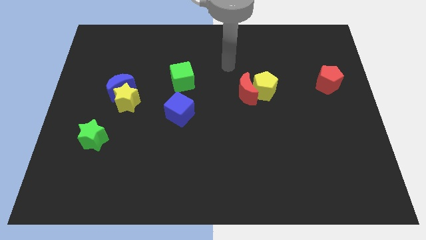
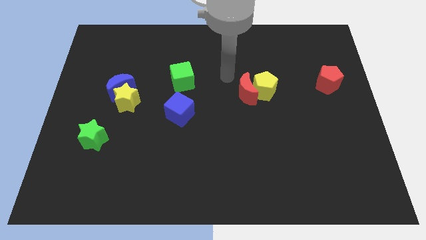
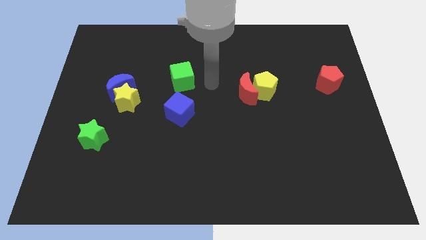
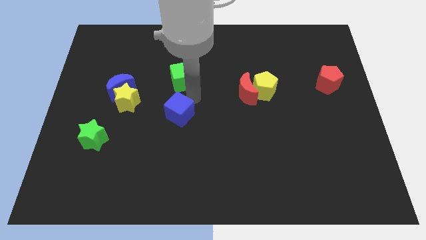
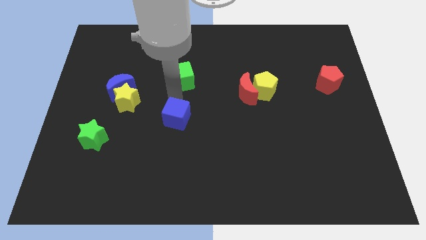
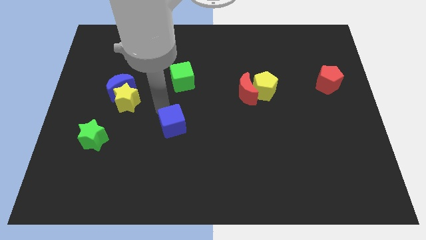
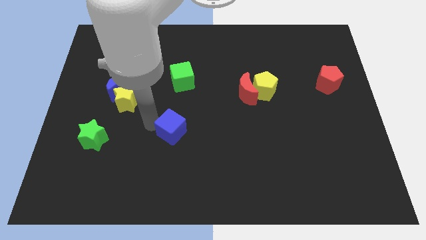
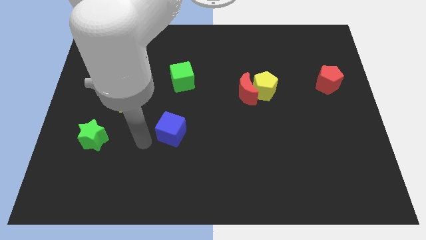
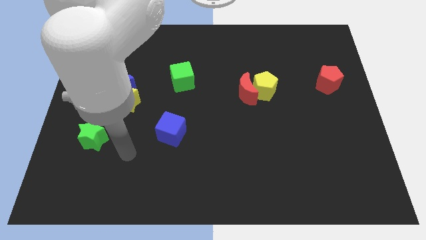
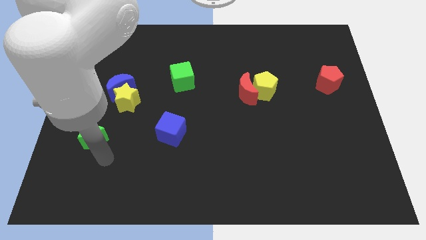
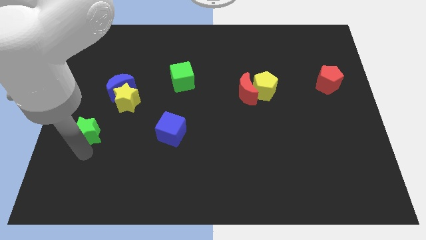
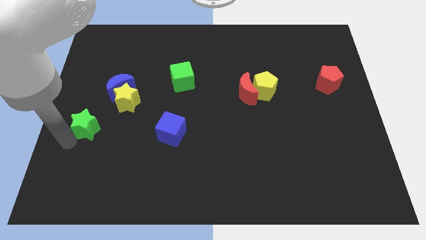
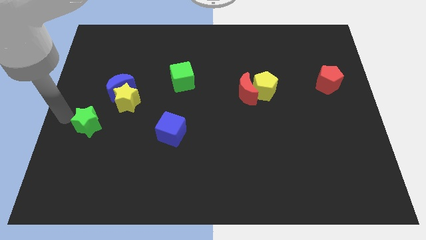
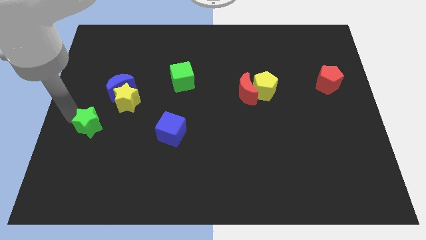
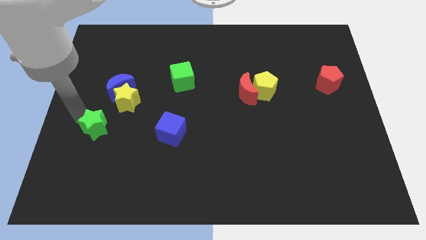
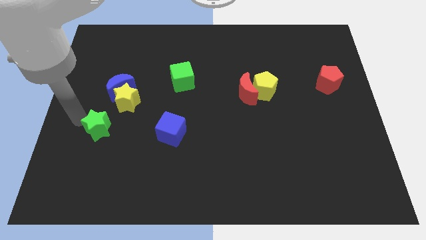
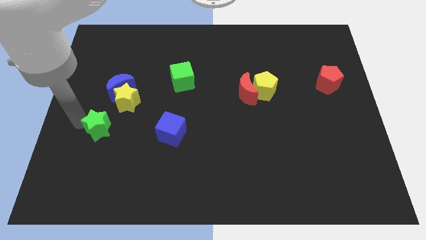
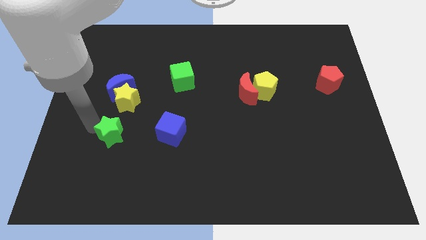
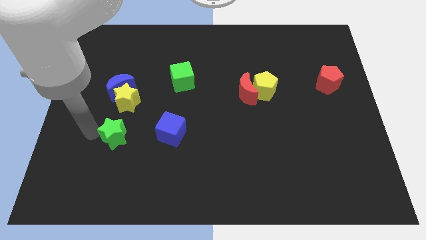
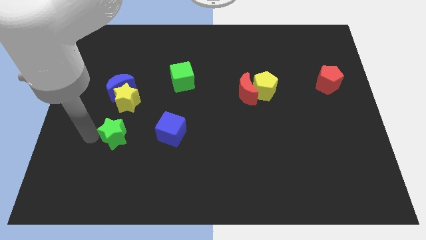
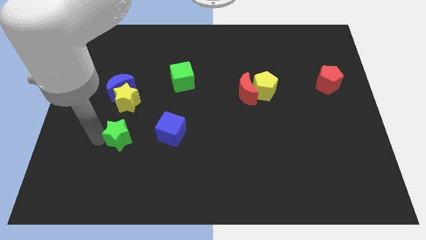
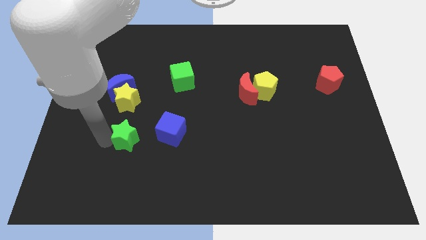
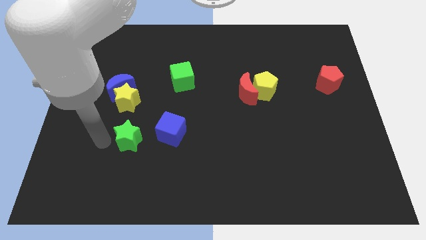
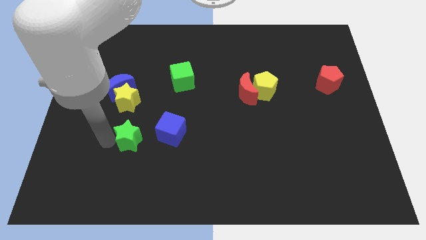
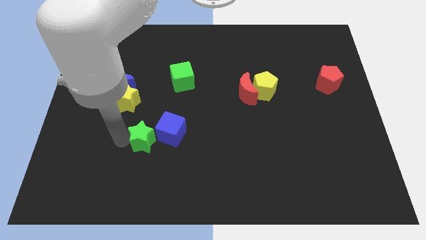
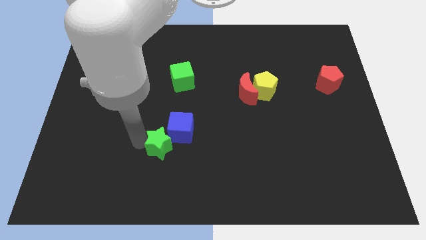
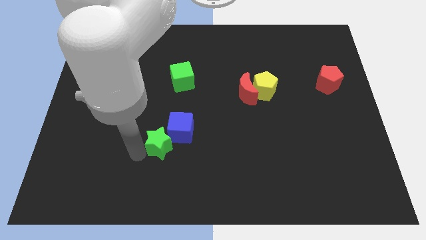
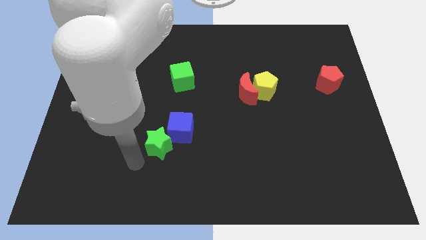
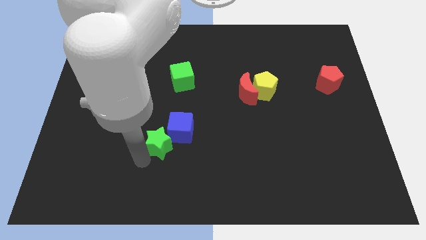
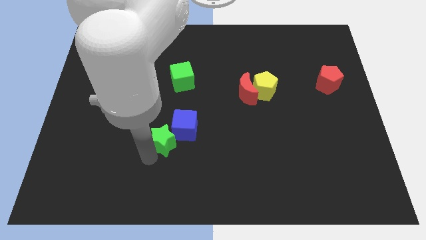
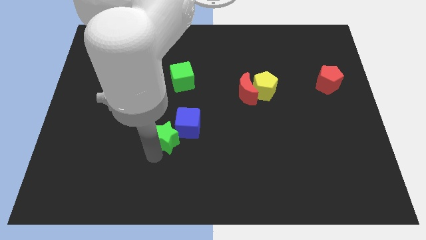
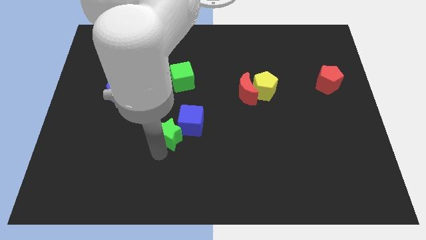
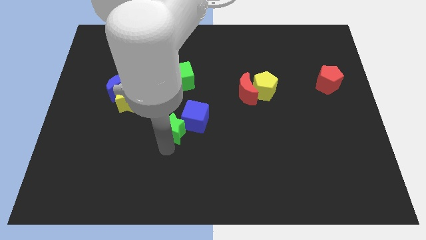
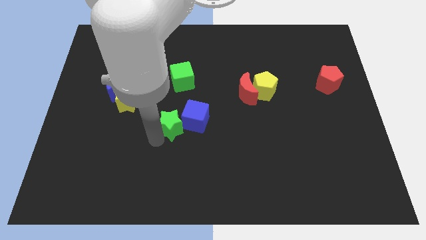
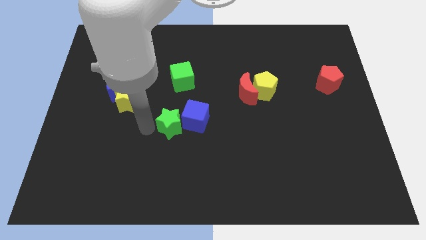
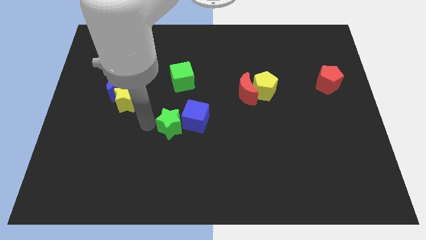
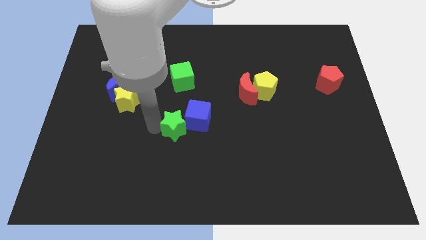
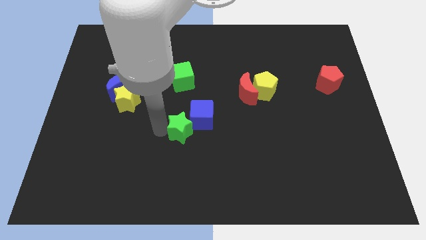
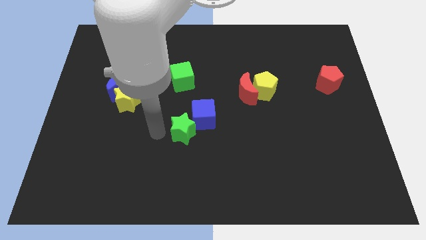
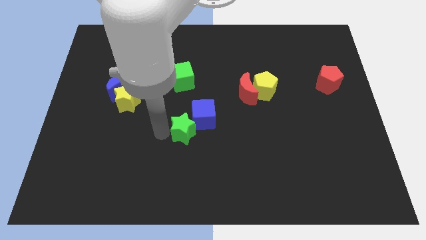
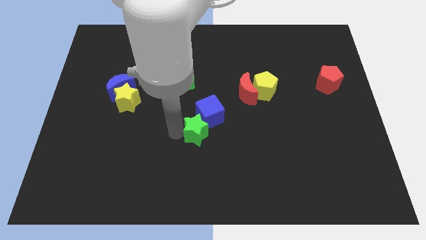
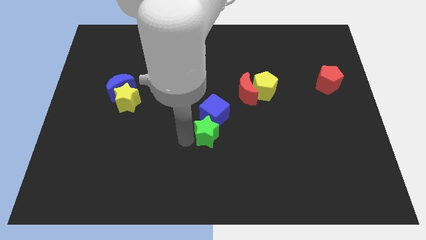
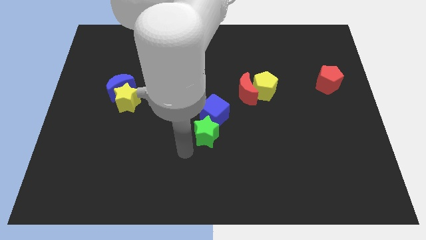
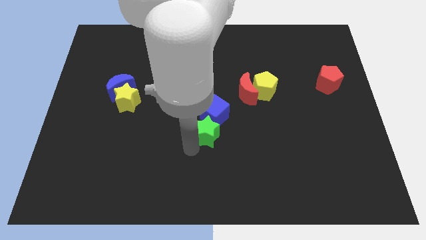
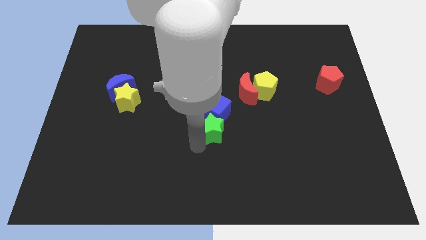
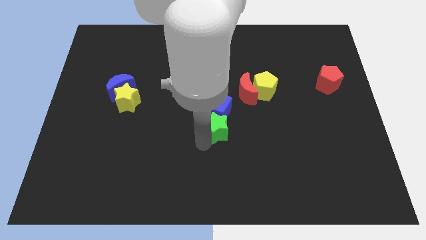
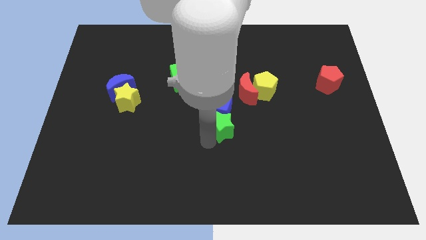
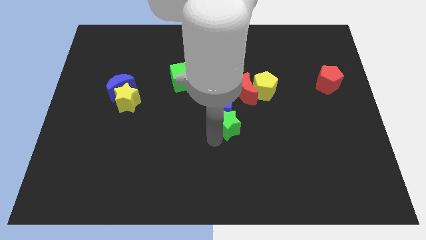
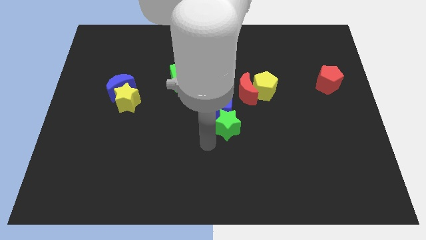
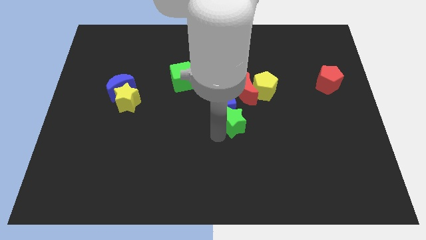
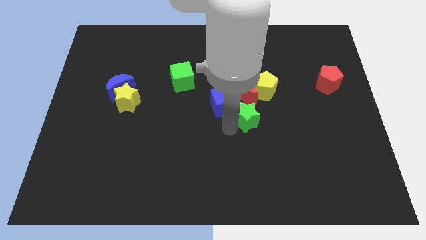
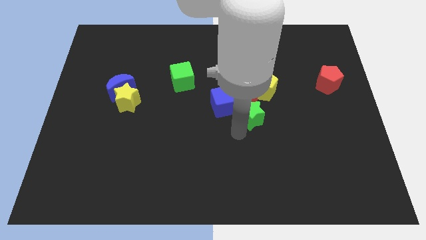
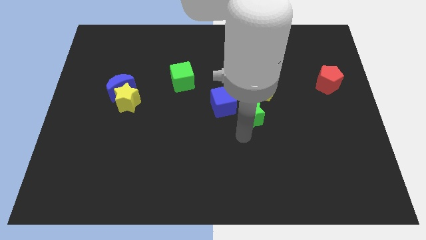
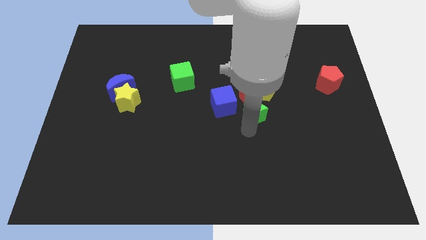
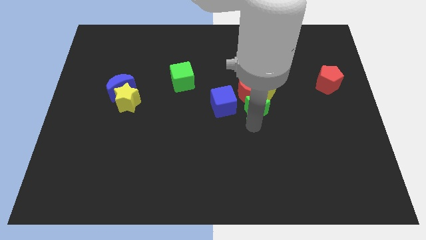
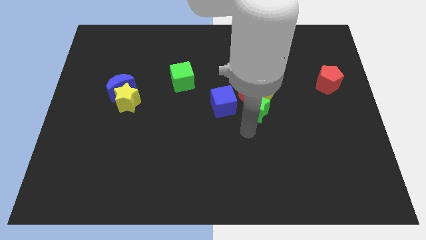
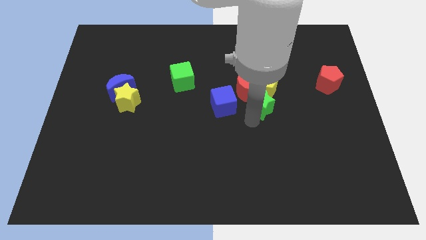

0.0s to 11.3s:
push the green star next to the yellow pentagon

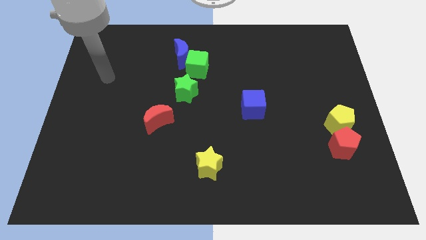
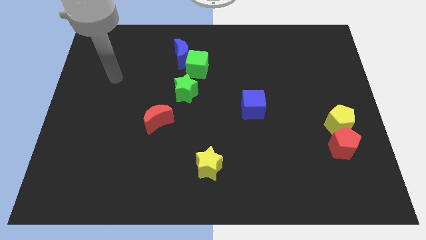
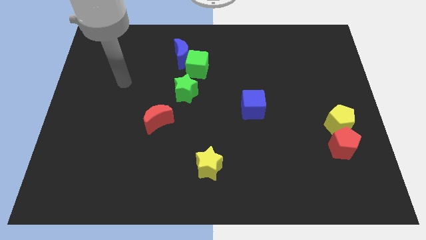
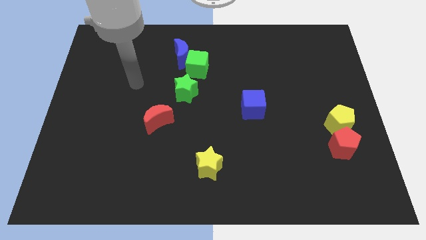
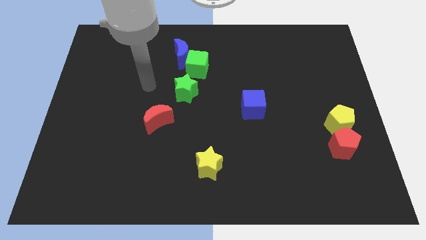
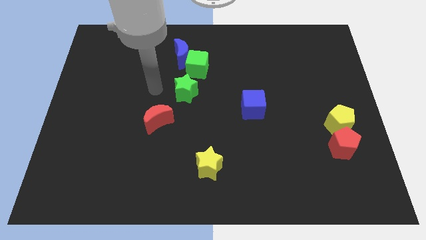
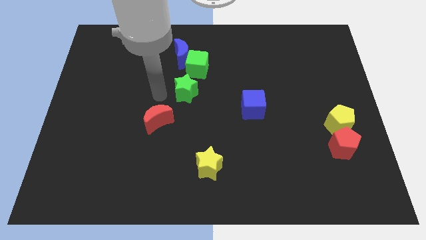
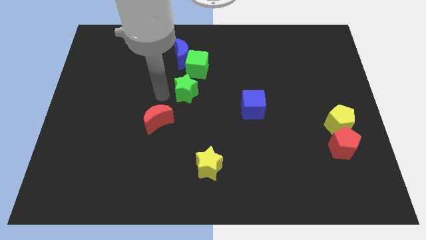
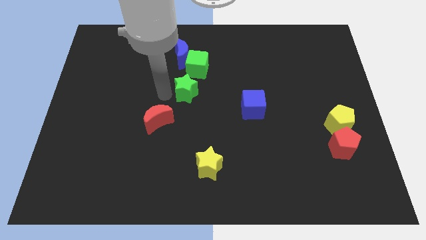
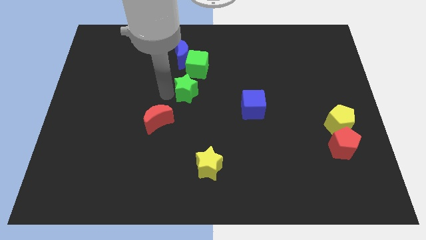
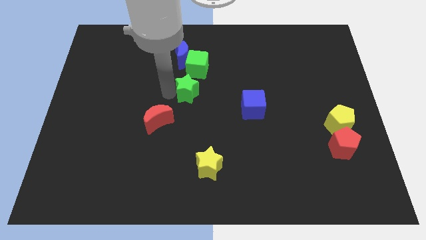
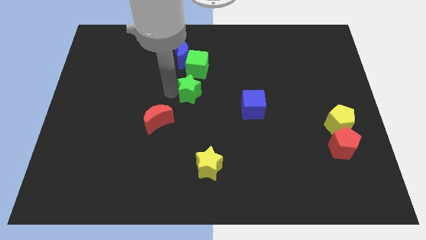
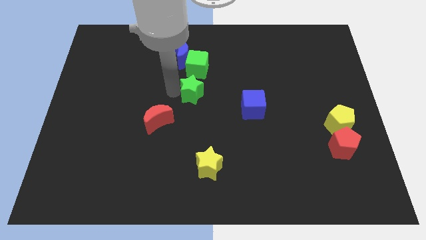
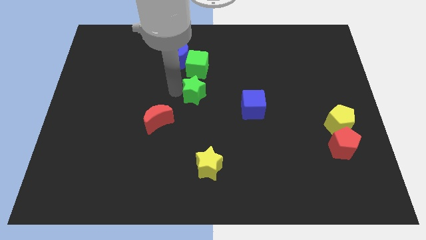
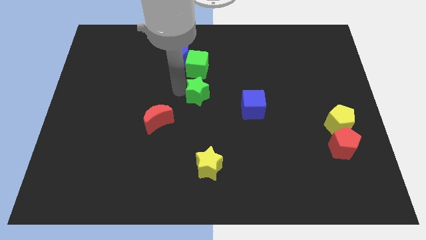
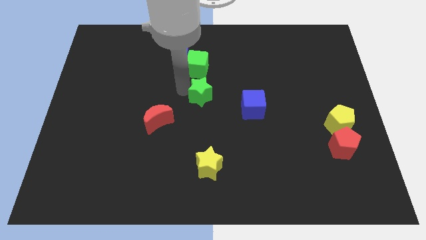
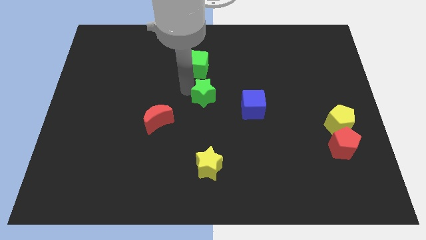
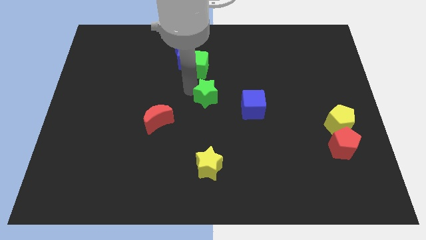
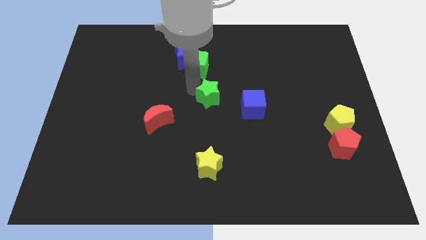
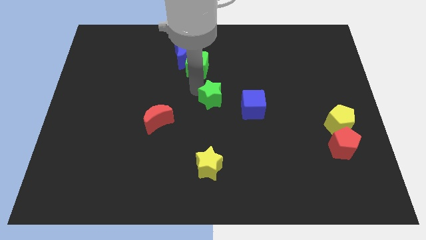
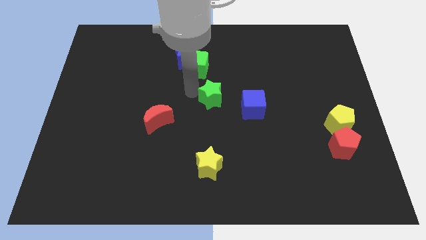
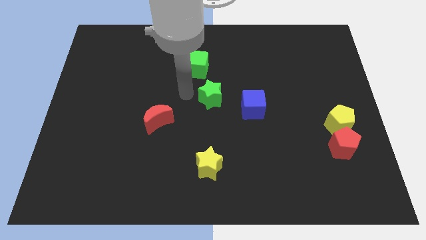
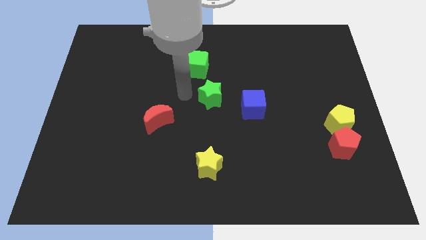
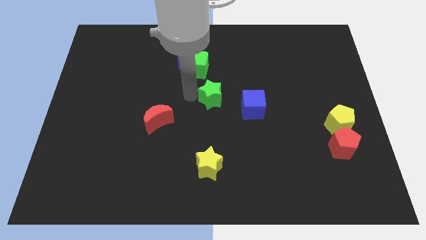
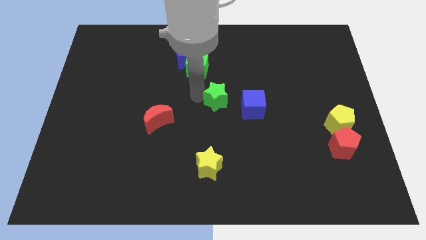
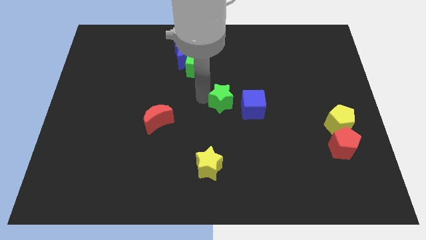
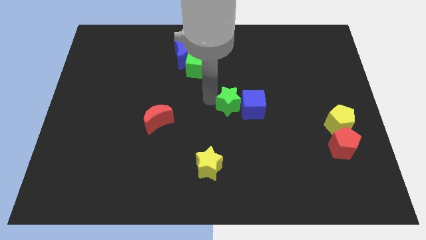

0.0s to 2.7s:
slide the green star to the blue cube
